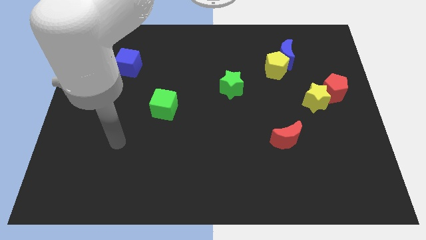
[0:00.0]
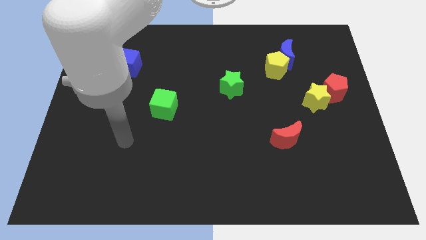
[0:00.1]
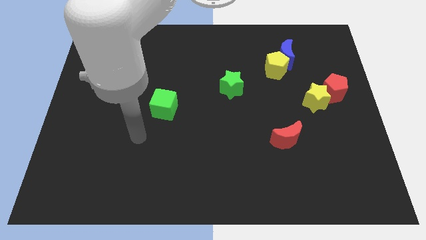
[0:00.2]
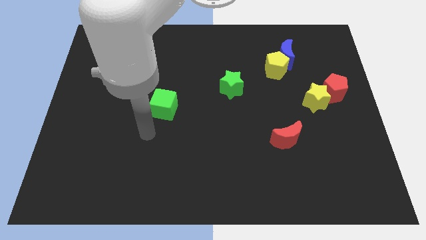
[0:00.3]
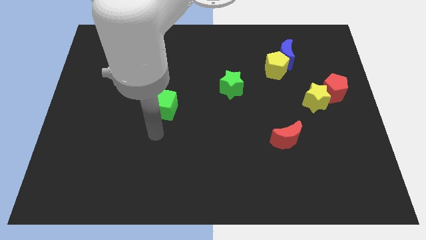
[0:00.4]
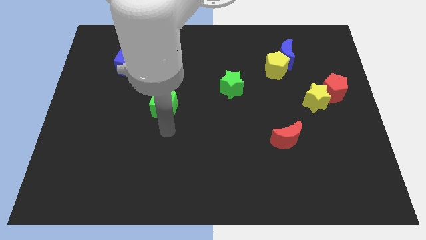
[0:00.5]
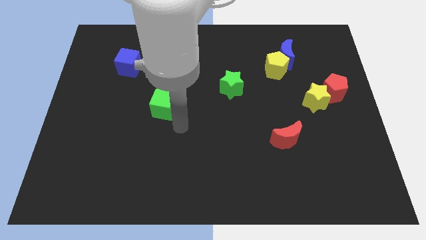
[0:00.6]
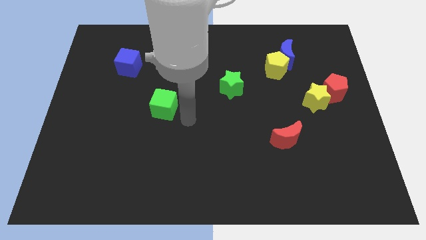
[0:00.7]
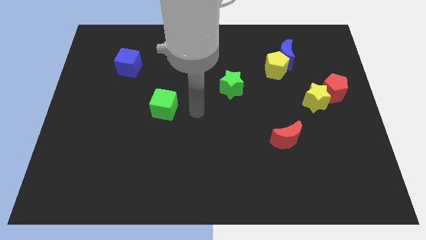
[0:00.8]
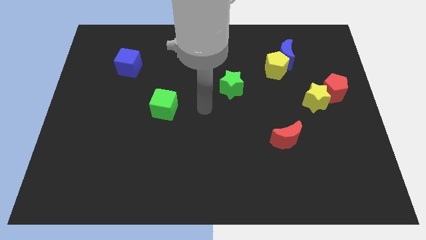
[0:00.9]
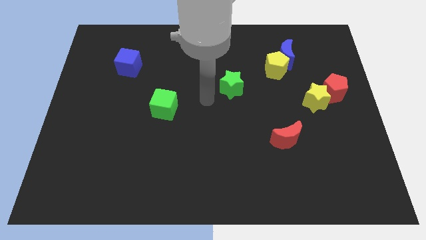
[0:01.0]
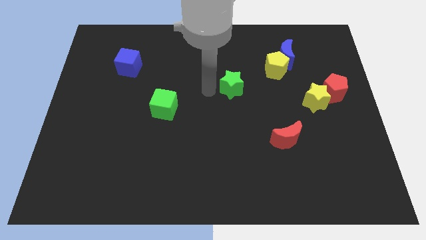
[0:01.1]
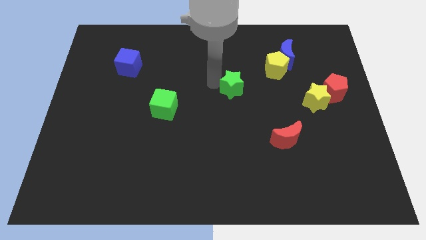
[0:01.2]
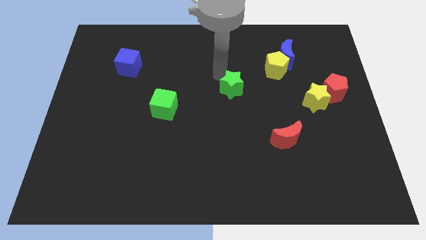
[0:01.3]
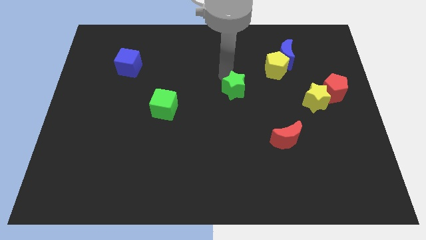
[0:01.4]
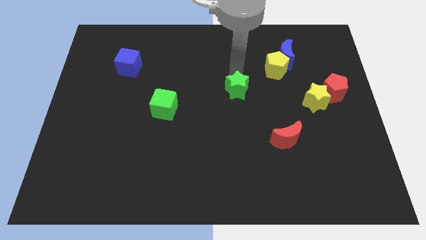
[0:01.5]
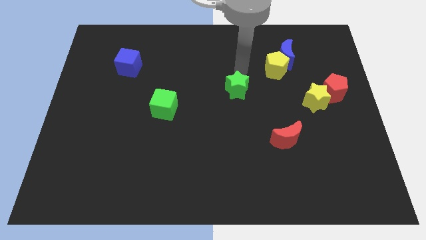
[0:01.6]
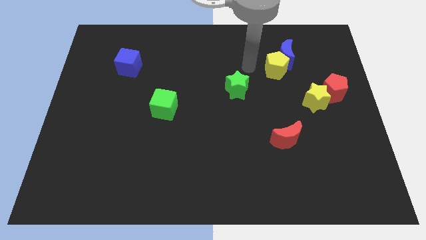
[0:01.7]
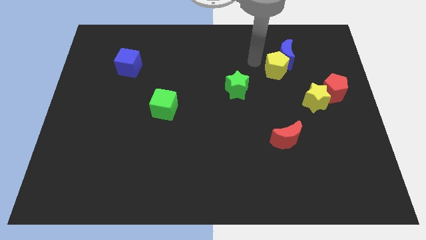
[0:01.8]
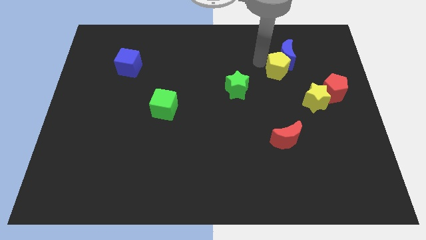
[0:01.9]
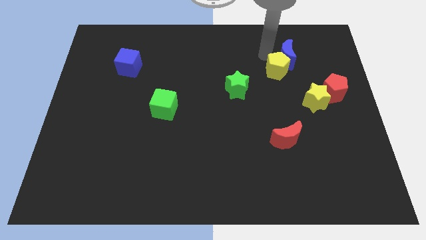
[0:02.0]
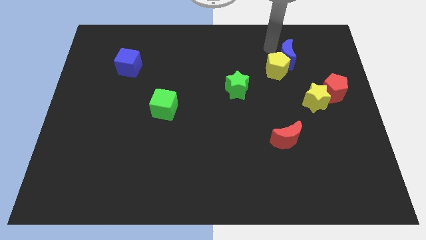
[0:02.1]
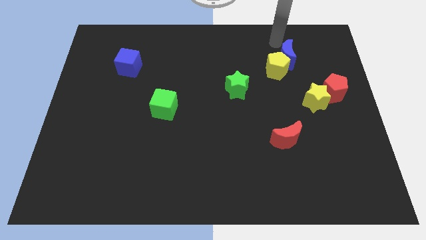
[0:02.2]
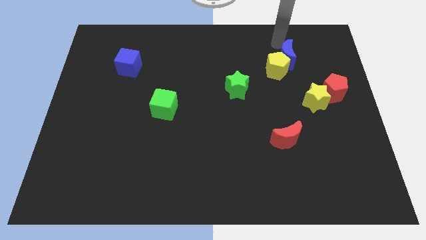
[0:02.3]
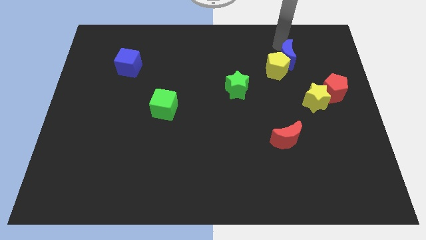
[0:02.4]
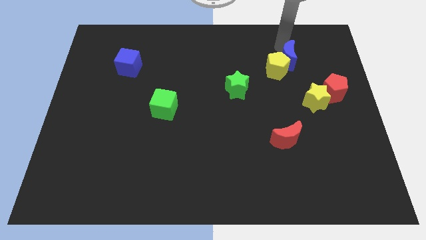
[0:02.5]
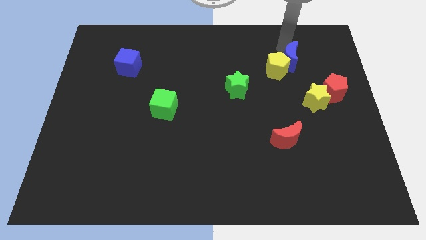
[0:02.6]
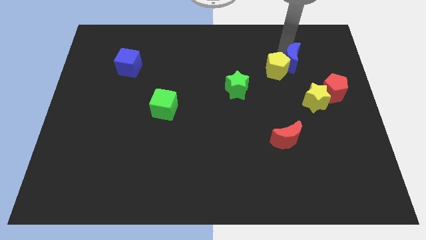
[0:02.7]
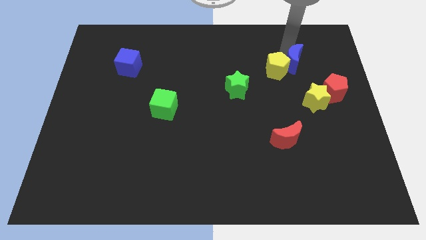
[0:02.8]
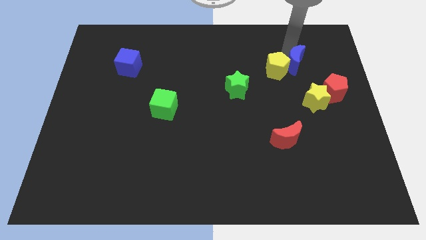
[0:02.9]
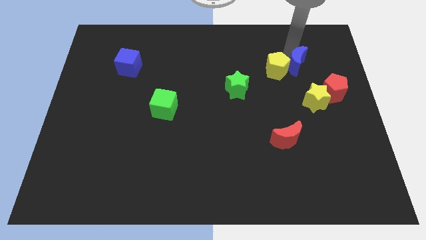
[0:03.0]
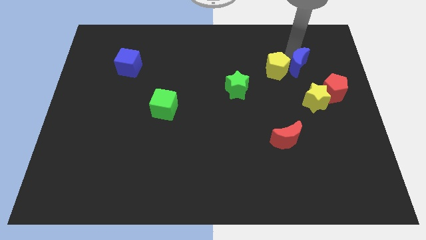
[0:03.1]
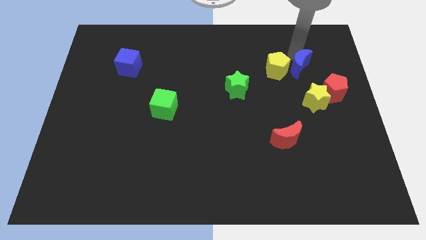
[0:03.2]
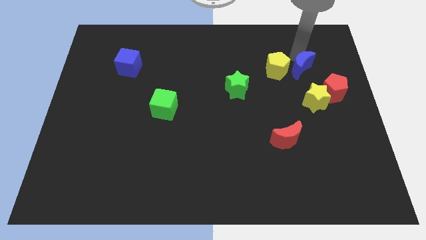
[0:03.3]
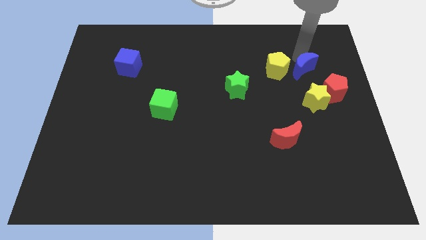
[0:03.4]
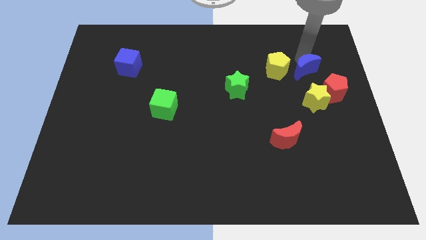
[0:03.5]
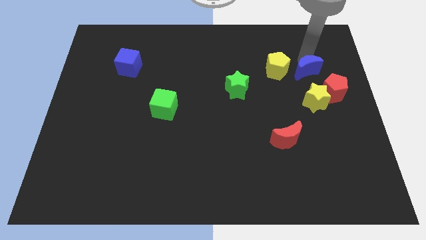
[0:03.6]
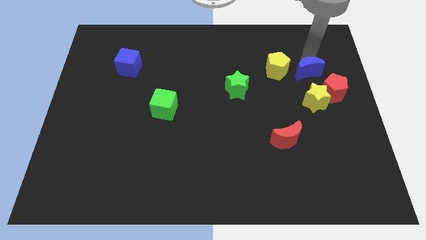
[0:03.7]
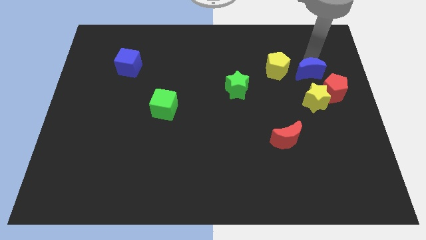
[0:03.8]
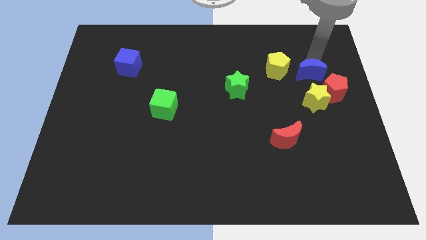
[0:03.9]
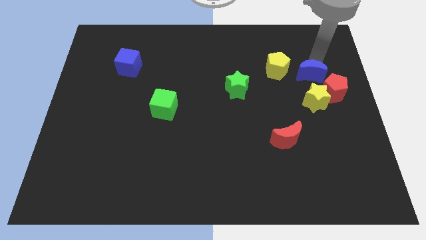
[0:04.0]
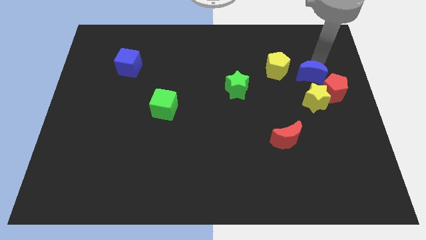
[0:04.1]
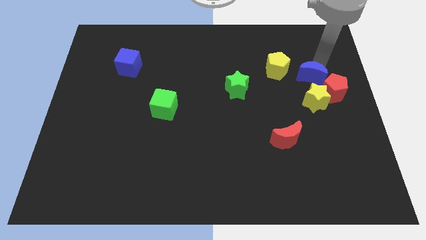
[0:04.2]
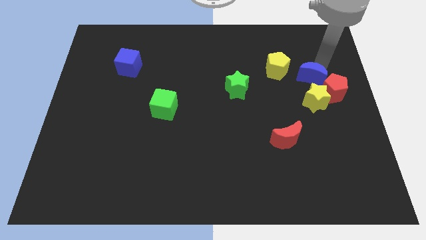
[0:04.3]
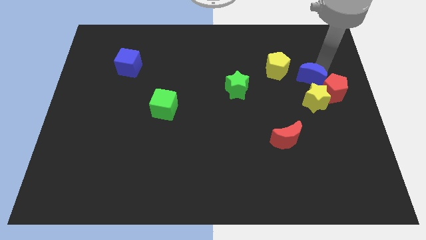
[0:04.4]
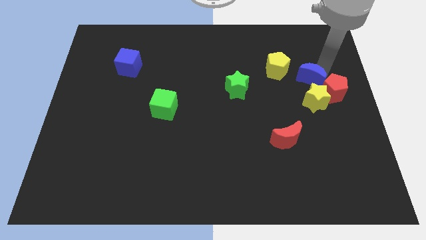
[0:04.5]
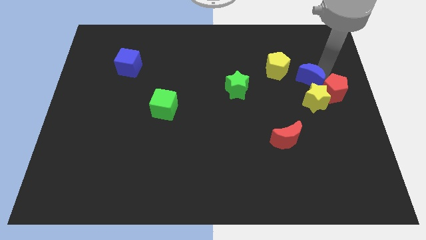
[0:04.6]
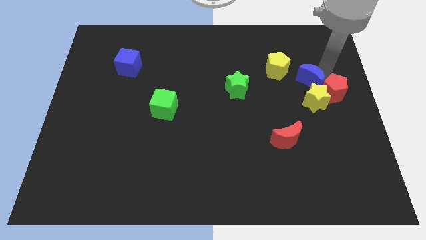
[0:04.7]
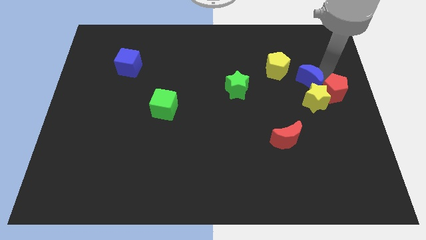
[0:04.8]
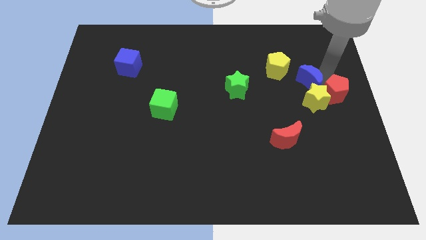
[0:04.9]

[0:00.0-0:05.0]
slide the blue moon towards the yellow star

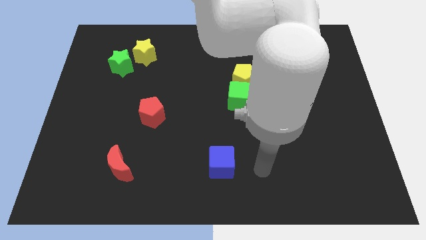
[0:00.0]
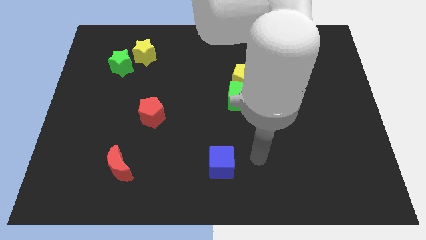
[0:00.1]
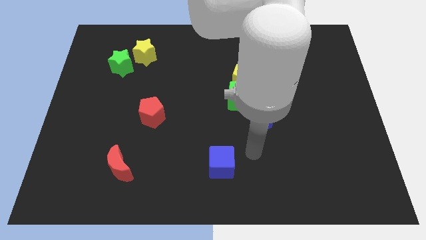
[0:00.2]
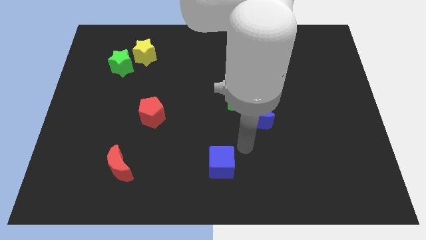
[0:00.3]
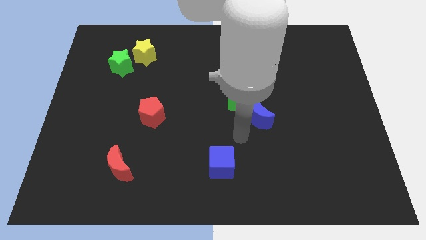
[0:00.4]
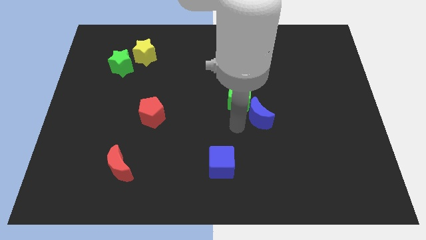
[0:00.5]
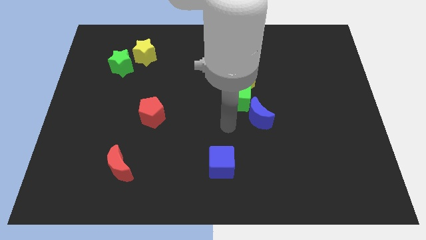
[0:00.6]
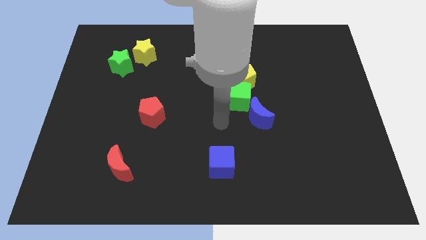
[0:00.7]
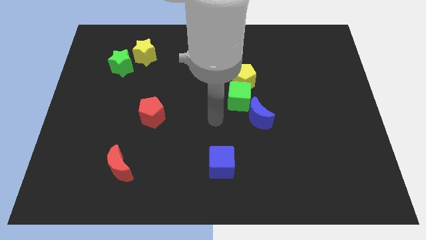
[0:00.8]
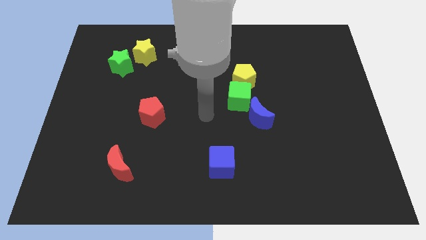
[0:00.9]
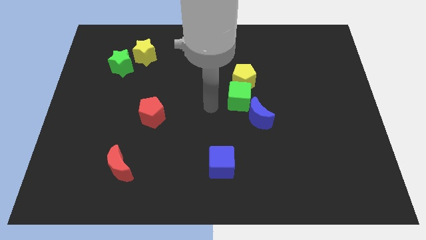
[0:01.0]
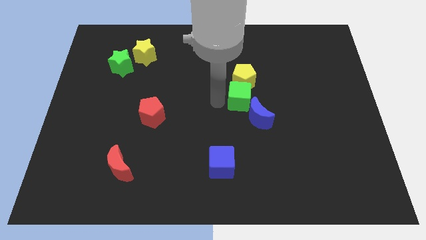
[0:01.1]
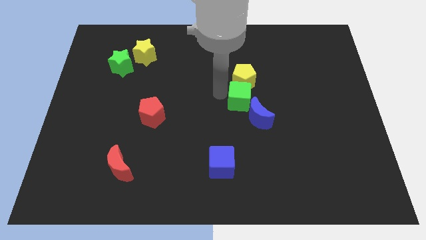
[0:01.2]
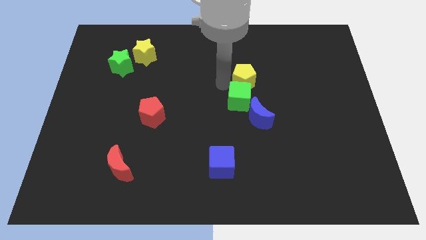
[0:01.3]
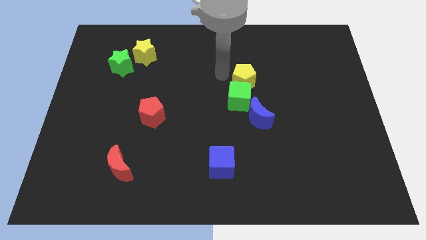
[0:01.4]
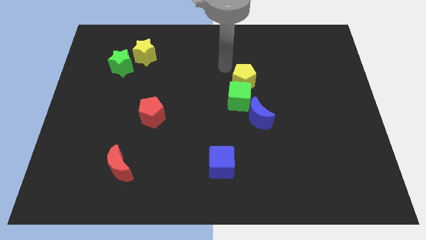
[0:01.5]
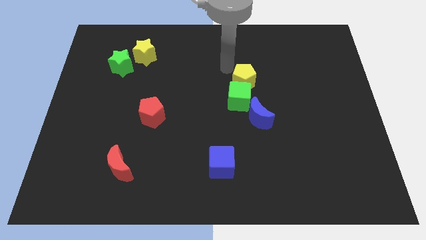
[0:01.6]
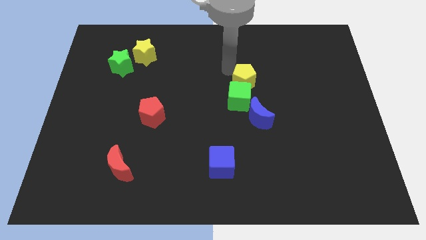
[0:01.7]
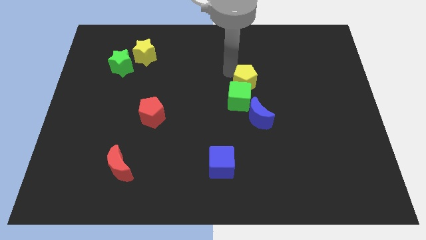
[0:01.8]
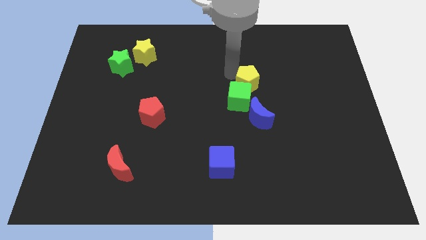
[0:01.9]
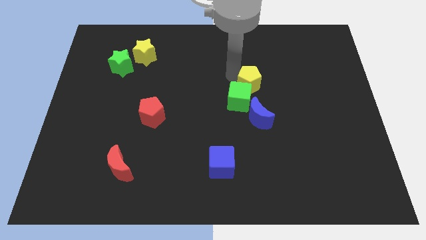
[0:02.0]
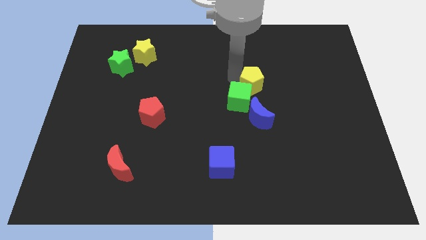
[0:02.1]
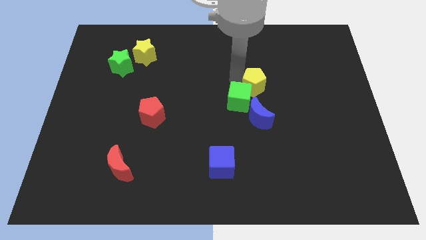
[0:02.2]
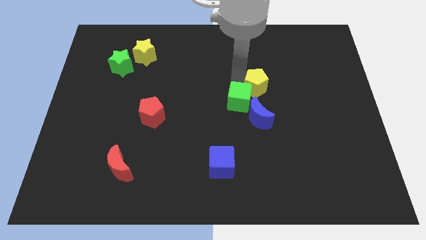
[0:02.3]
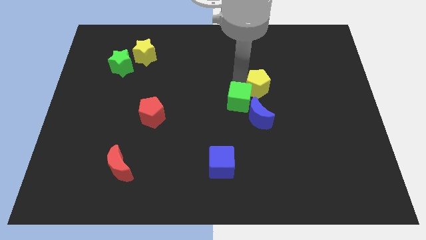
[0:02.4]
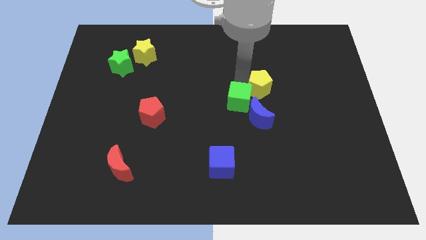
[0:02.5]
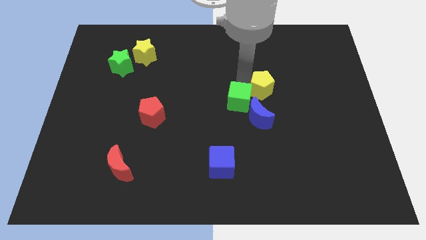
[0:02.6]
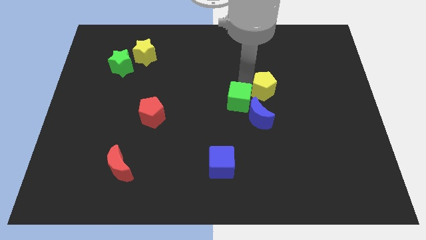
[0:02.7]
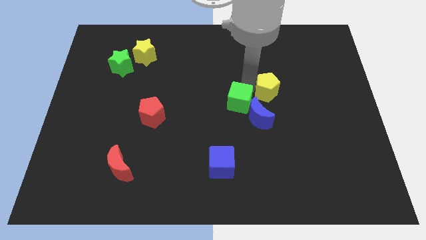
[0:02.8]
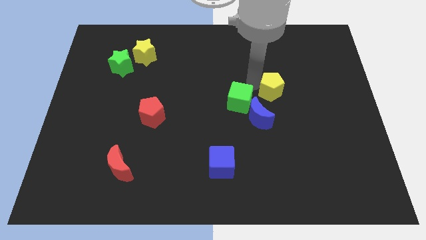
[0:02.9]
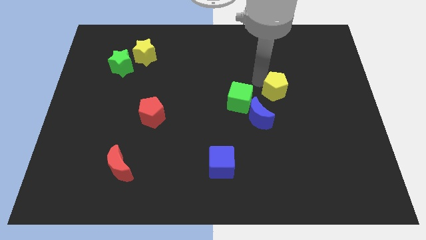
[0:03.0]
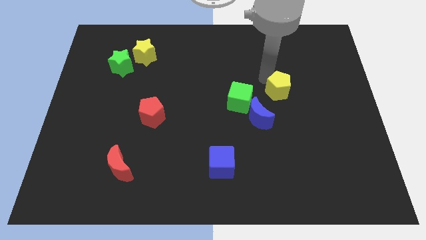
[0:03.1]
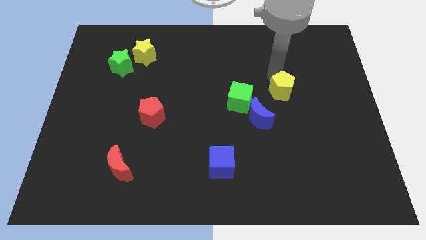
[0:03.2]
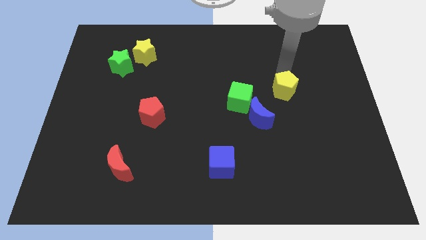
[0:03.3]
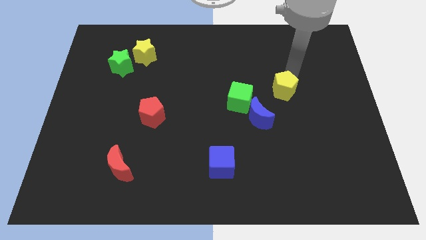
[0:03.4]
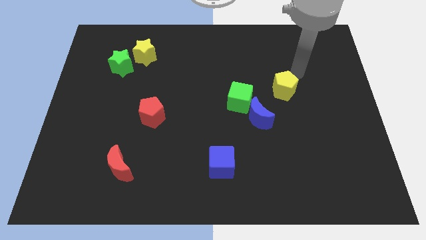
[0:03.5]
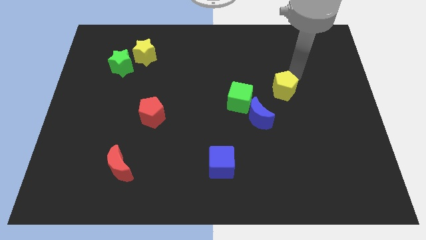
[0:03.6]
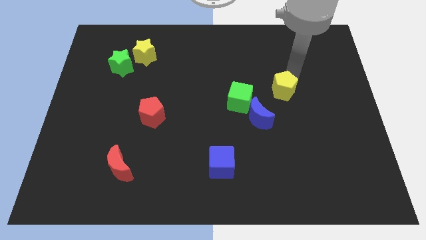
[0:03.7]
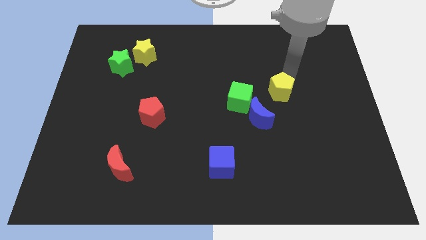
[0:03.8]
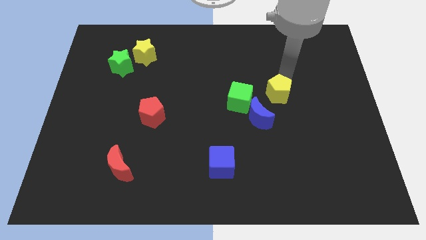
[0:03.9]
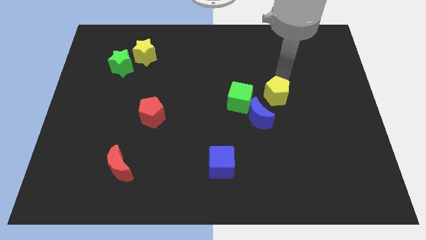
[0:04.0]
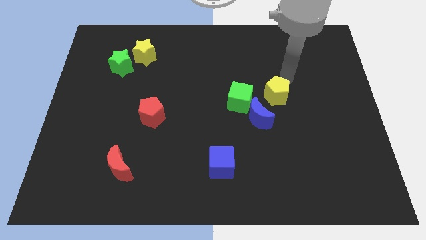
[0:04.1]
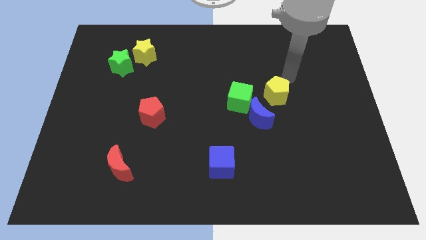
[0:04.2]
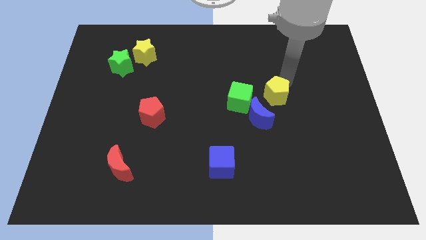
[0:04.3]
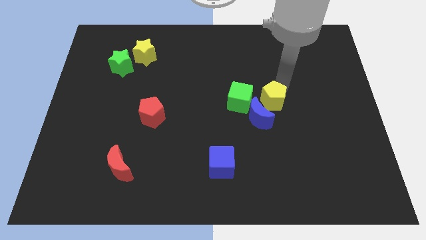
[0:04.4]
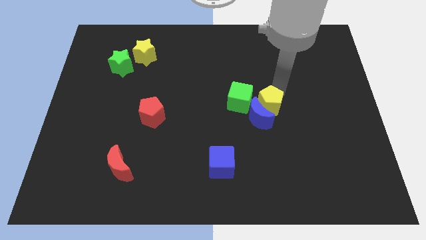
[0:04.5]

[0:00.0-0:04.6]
put the yellow pentagon next to the blue moon
